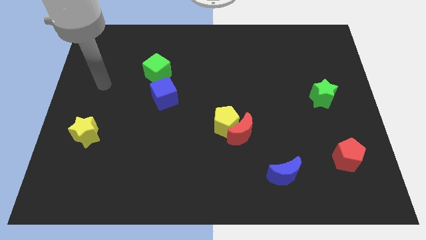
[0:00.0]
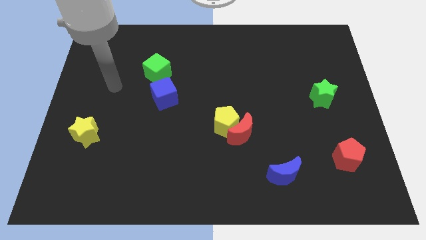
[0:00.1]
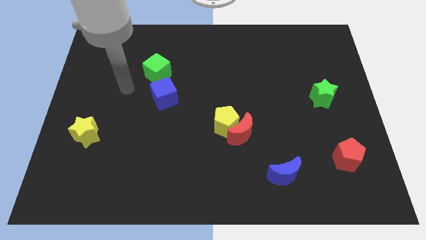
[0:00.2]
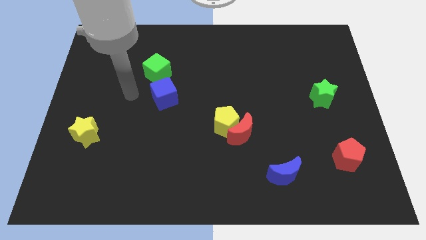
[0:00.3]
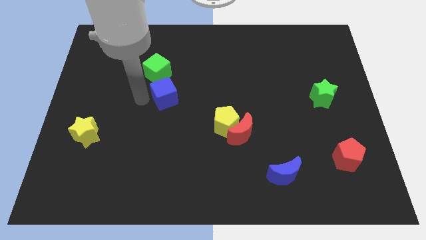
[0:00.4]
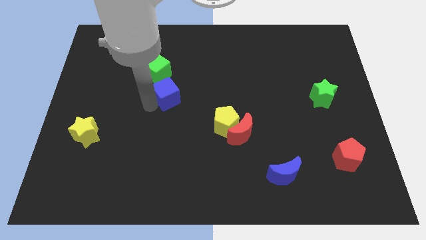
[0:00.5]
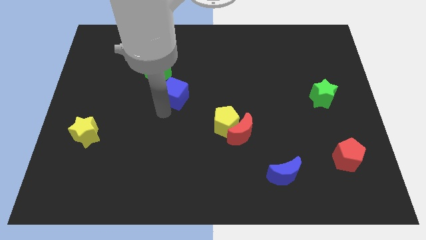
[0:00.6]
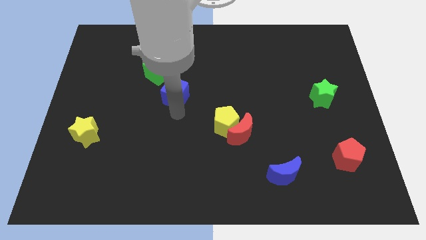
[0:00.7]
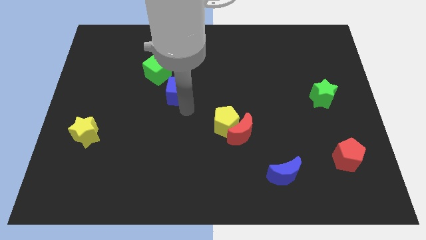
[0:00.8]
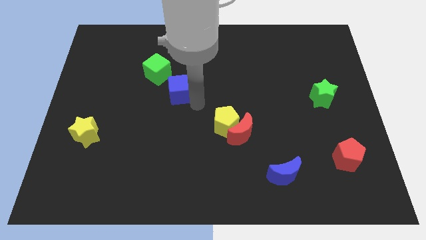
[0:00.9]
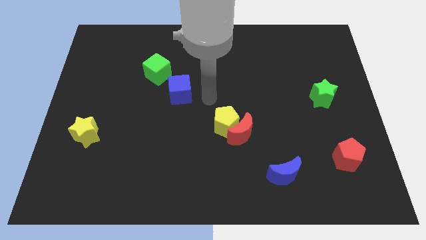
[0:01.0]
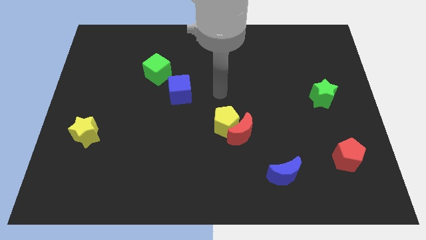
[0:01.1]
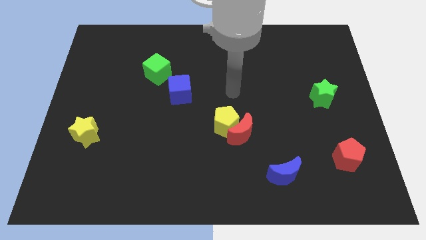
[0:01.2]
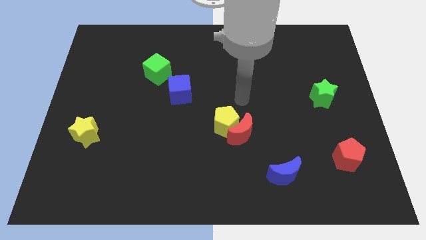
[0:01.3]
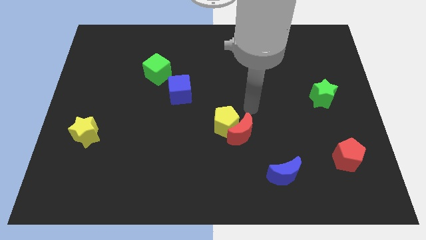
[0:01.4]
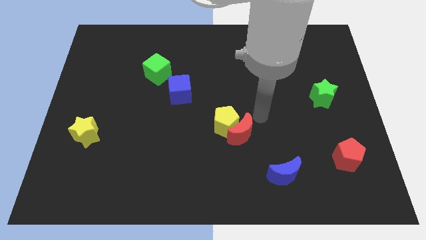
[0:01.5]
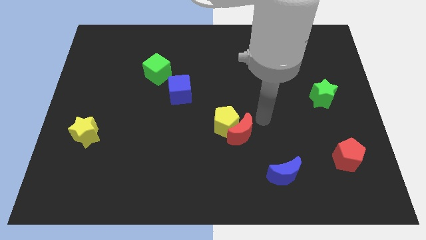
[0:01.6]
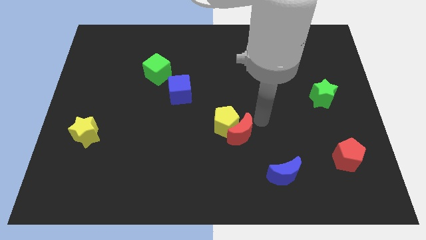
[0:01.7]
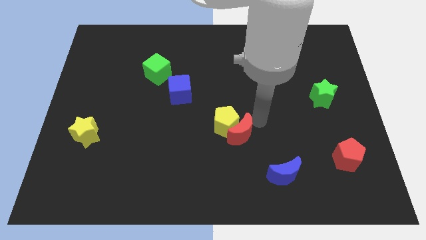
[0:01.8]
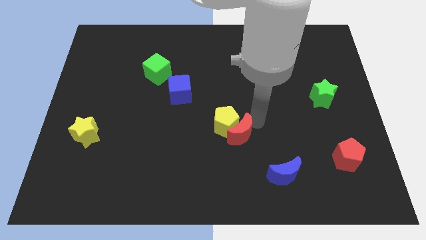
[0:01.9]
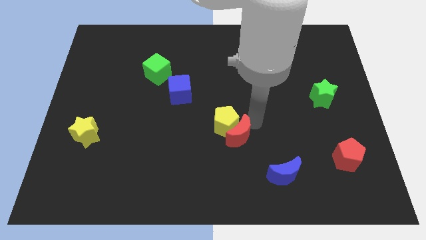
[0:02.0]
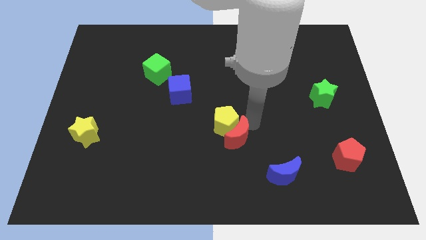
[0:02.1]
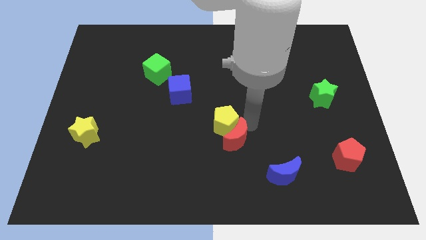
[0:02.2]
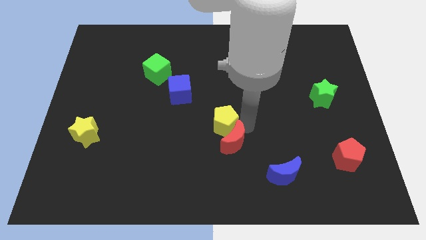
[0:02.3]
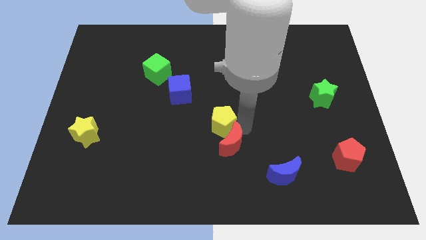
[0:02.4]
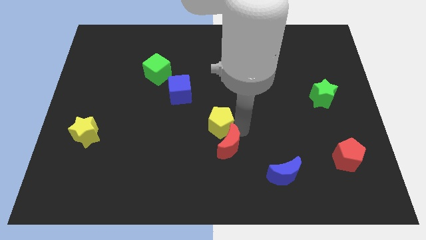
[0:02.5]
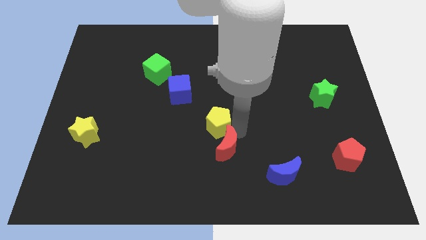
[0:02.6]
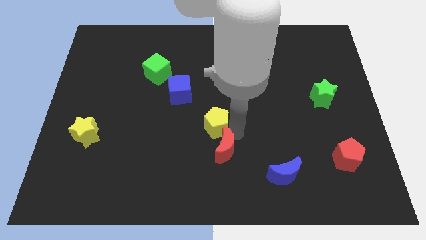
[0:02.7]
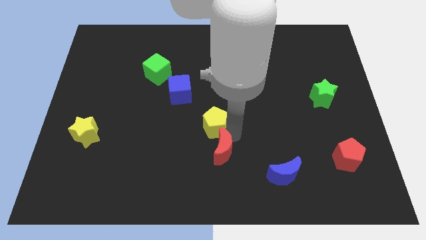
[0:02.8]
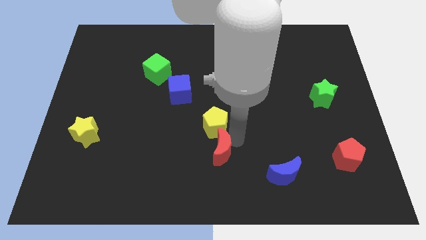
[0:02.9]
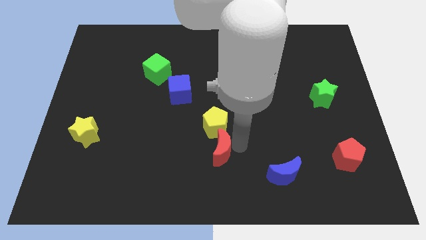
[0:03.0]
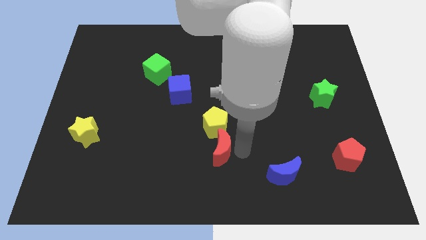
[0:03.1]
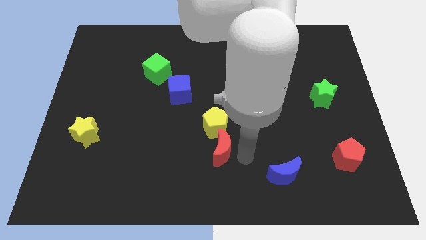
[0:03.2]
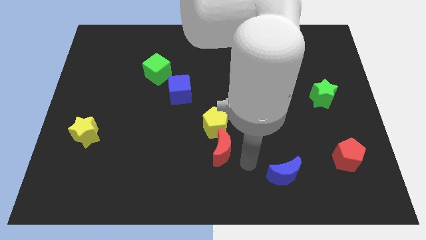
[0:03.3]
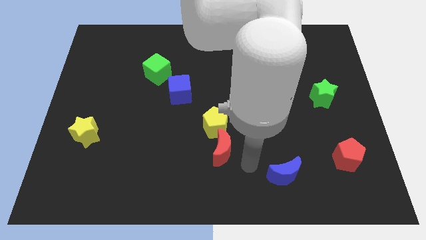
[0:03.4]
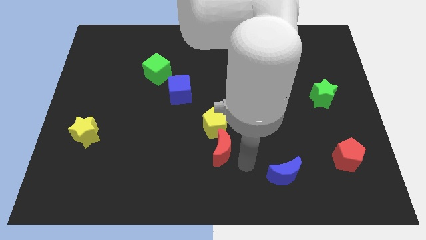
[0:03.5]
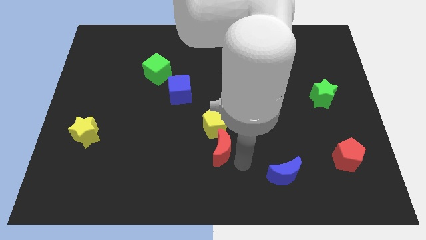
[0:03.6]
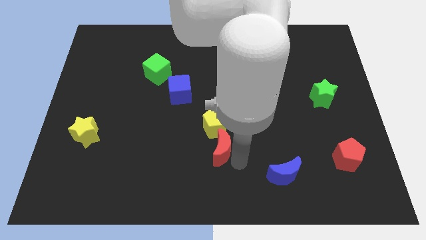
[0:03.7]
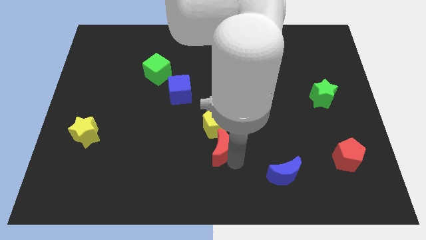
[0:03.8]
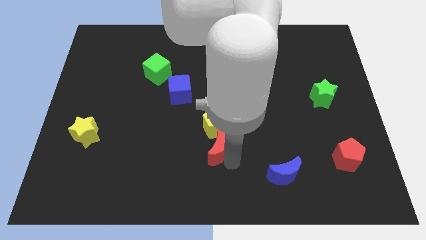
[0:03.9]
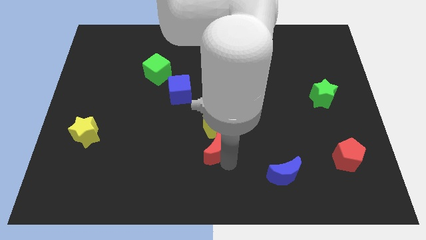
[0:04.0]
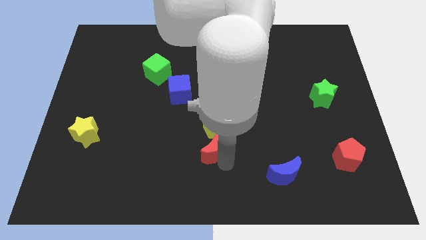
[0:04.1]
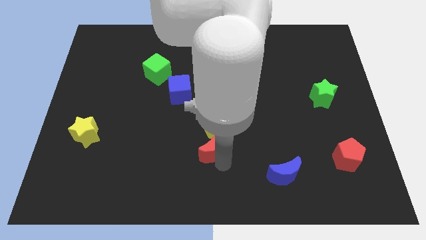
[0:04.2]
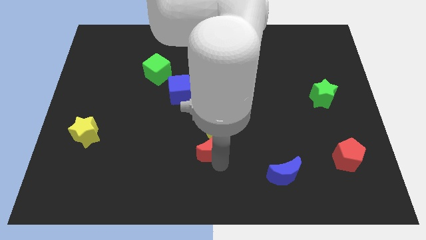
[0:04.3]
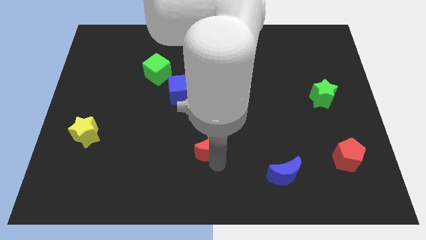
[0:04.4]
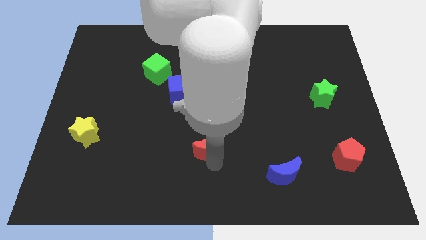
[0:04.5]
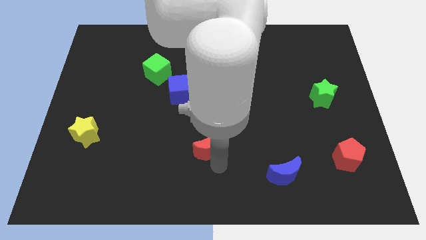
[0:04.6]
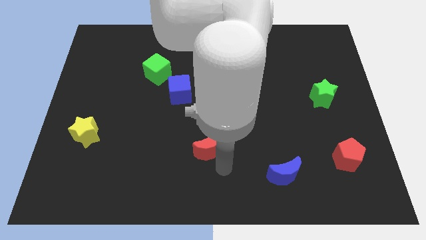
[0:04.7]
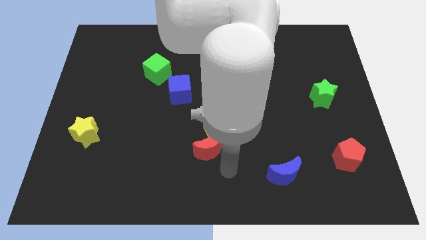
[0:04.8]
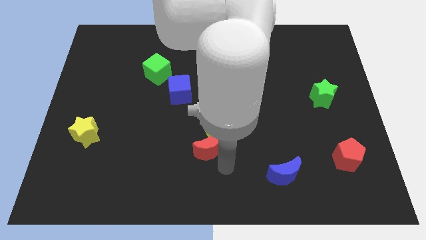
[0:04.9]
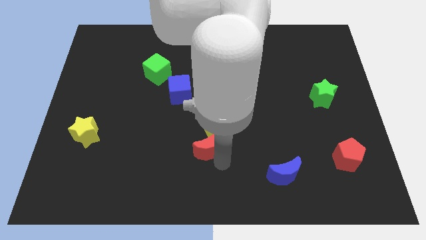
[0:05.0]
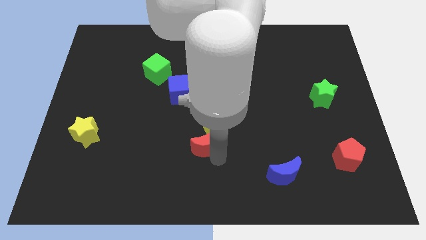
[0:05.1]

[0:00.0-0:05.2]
slightly push the red moon left

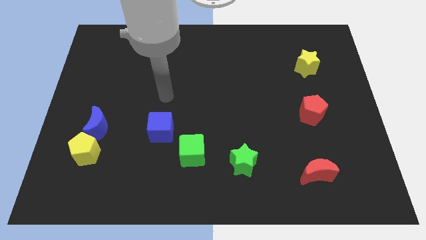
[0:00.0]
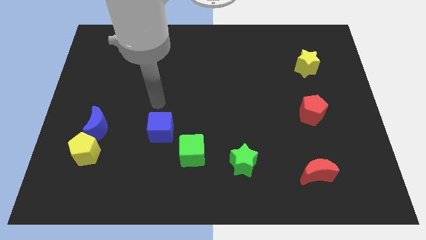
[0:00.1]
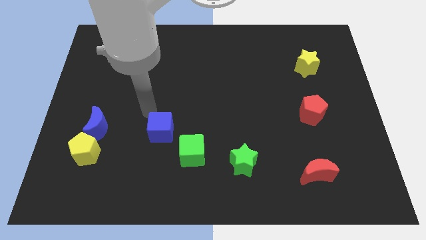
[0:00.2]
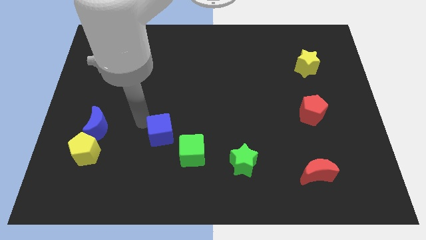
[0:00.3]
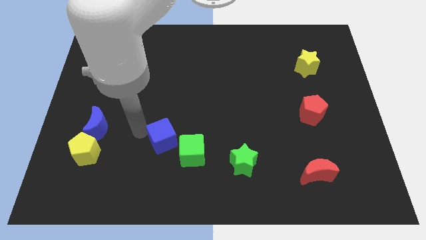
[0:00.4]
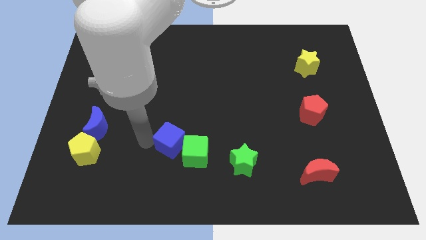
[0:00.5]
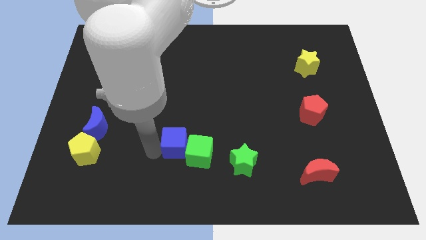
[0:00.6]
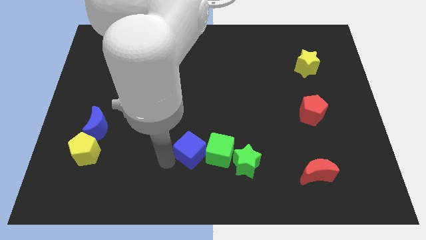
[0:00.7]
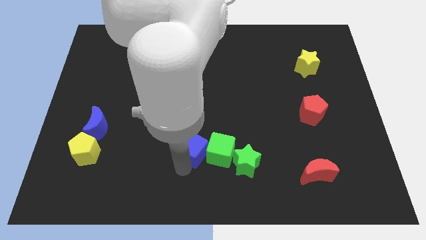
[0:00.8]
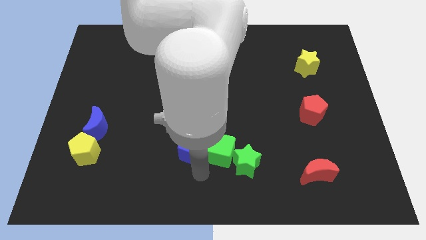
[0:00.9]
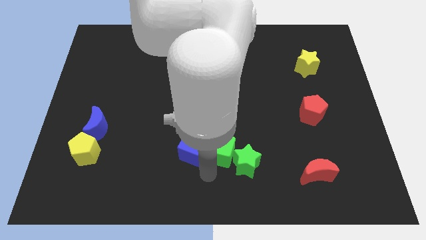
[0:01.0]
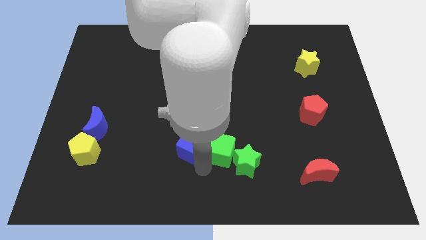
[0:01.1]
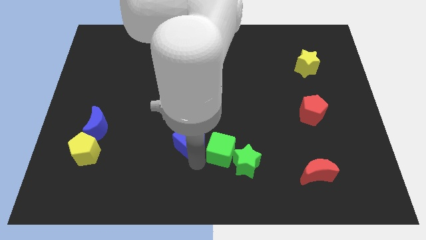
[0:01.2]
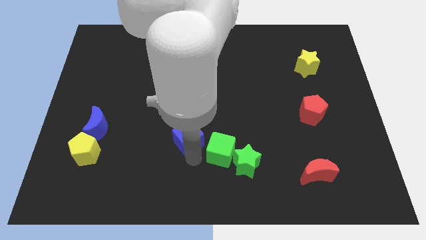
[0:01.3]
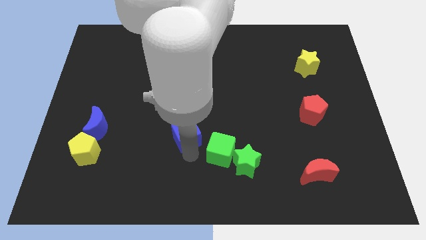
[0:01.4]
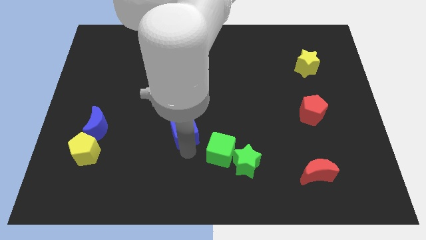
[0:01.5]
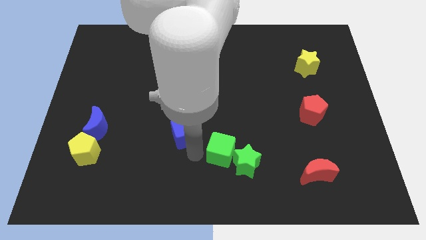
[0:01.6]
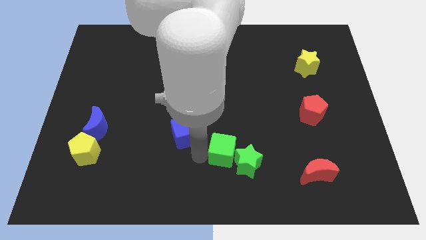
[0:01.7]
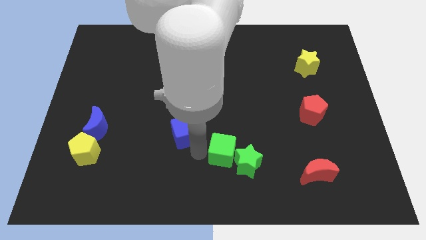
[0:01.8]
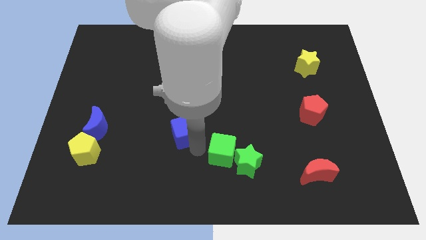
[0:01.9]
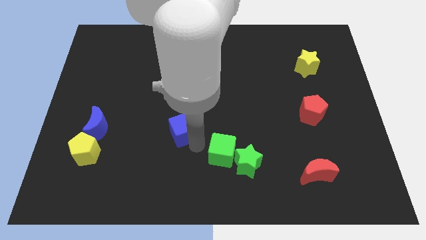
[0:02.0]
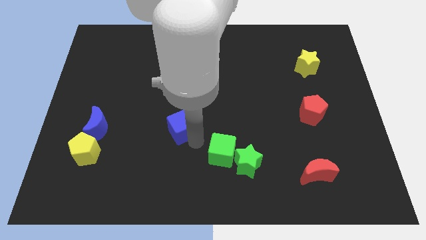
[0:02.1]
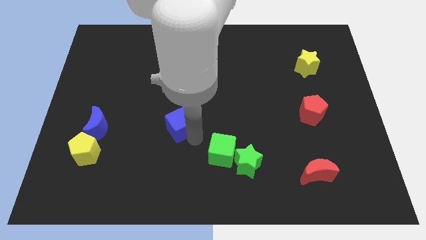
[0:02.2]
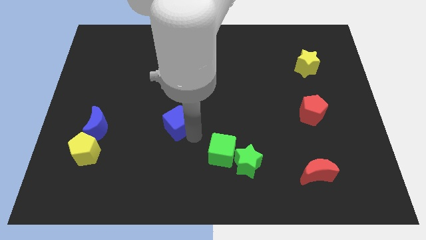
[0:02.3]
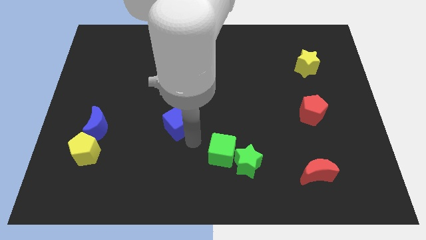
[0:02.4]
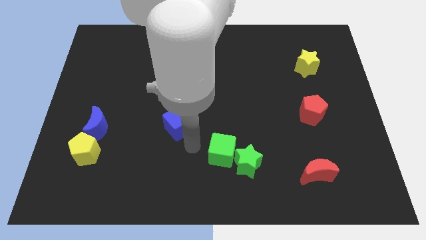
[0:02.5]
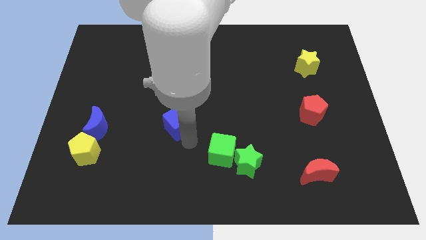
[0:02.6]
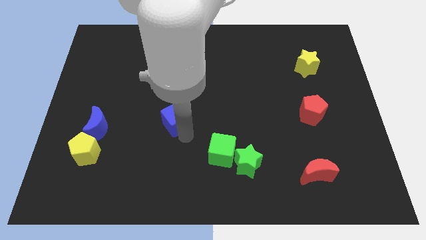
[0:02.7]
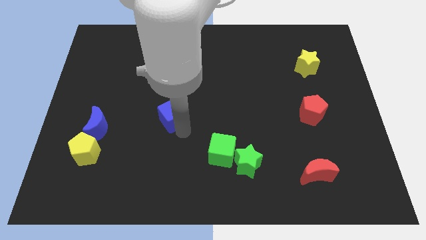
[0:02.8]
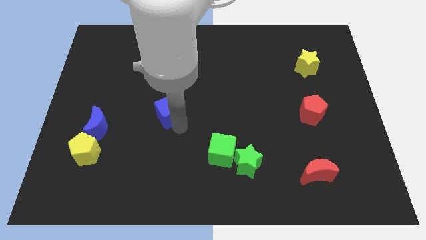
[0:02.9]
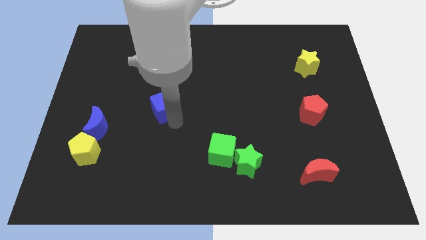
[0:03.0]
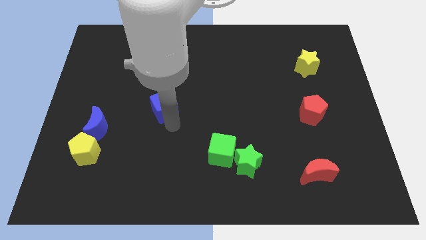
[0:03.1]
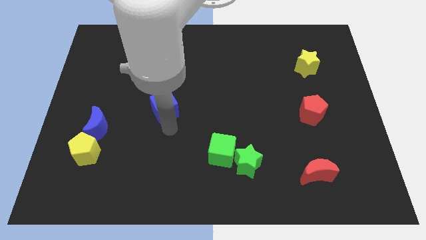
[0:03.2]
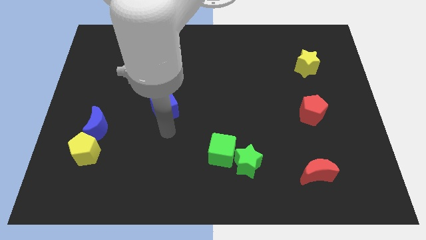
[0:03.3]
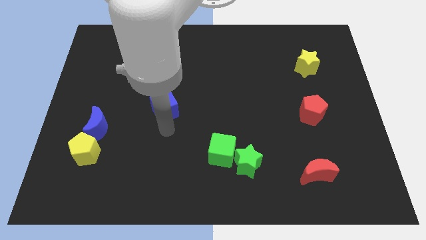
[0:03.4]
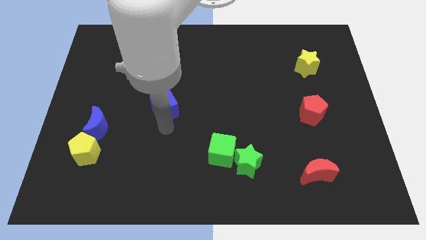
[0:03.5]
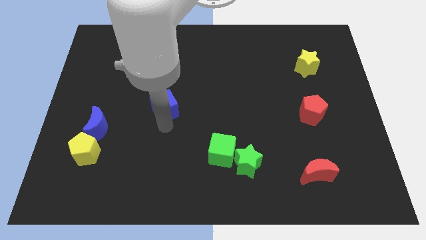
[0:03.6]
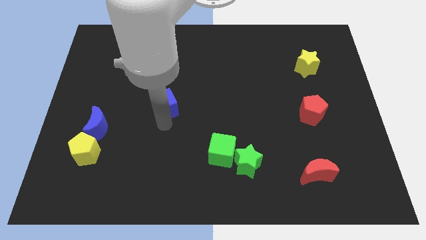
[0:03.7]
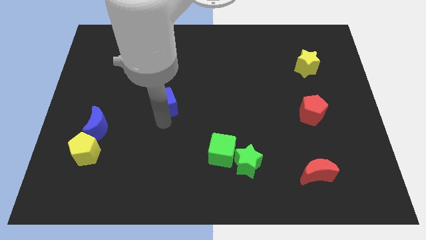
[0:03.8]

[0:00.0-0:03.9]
slightly push the blue cube upwards
